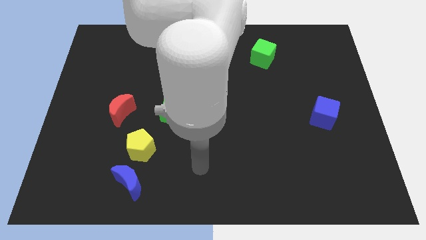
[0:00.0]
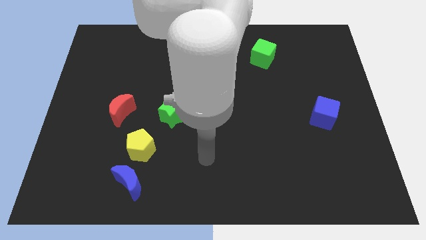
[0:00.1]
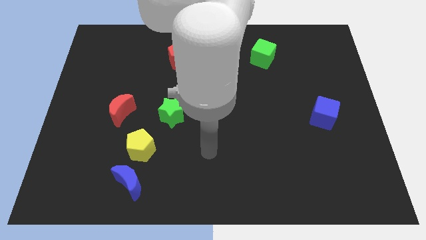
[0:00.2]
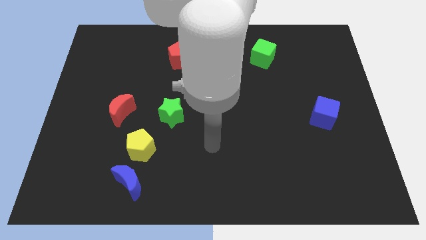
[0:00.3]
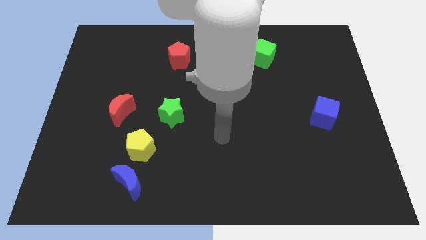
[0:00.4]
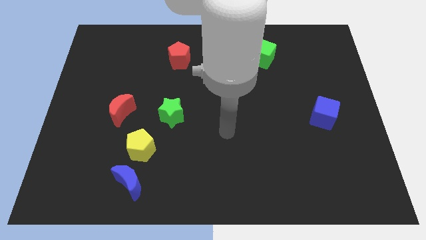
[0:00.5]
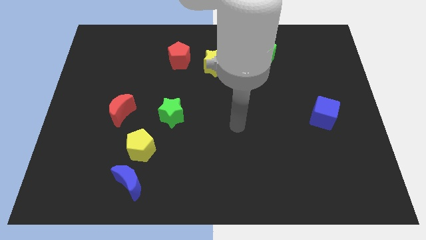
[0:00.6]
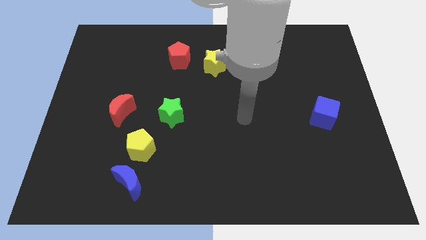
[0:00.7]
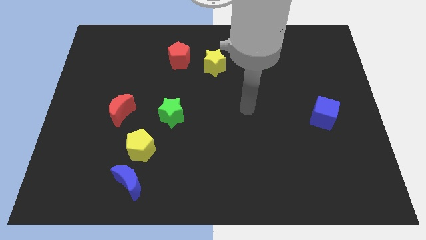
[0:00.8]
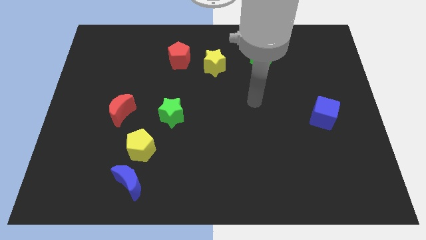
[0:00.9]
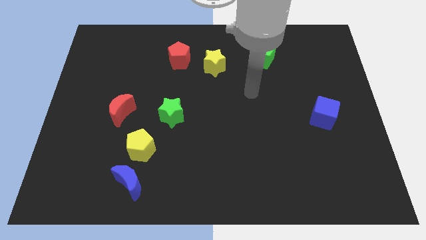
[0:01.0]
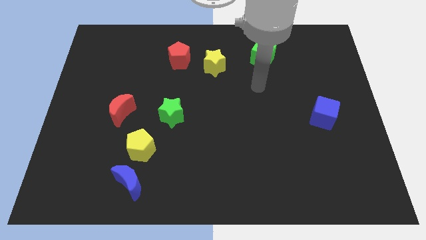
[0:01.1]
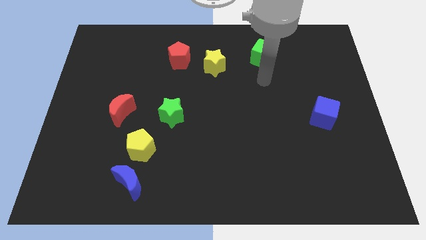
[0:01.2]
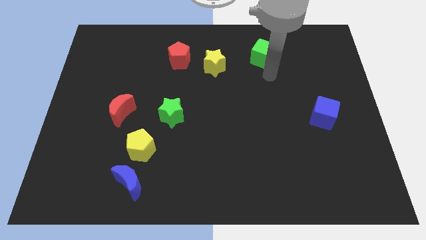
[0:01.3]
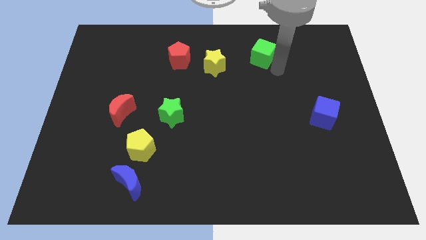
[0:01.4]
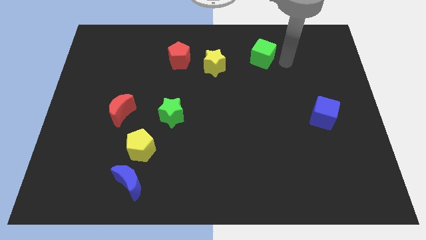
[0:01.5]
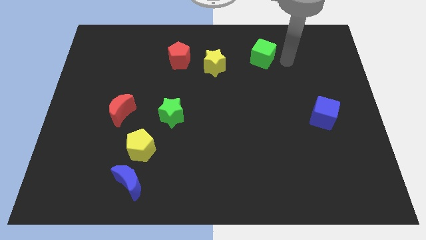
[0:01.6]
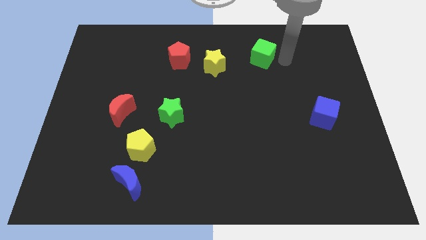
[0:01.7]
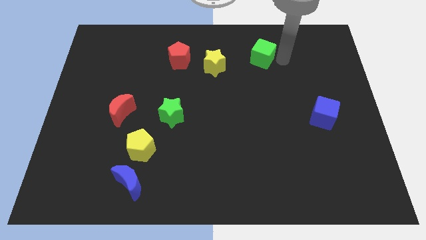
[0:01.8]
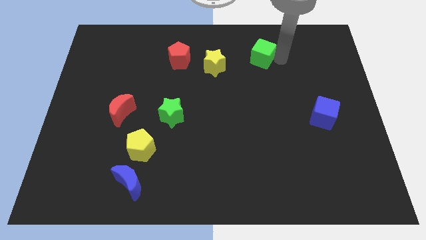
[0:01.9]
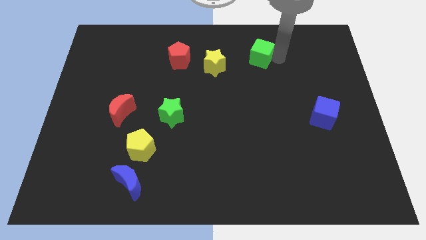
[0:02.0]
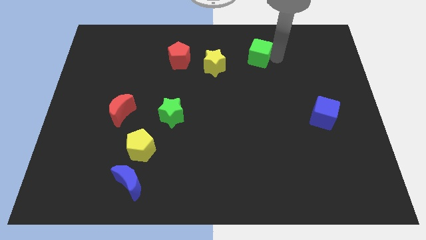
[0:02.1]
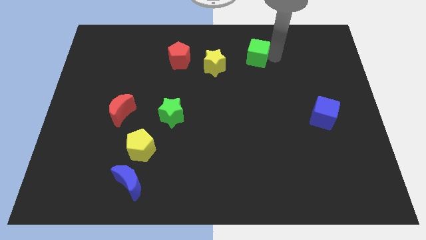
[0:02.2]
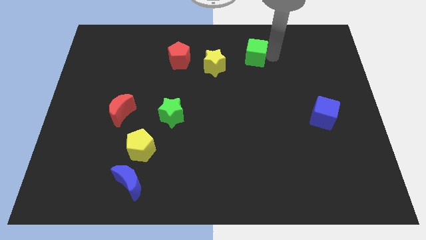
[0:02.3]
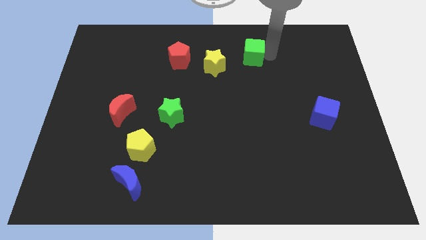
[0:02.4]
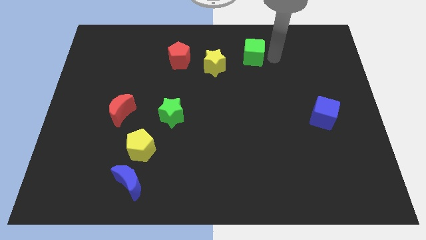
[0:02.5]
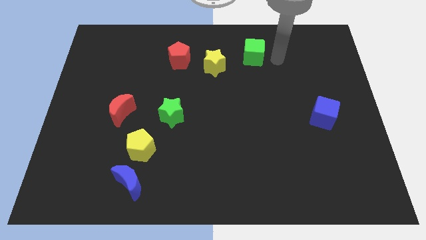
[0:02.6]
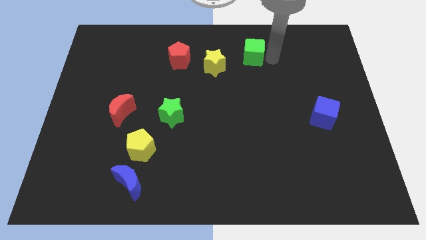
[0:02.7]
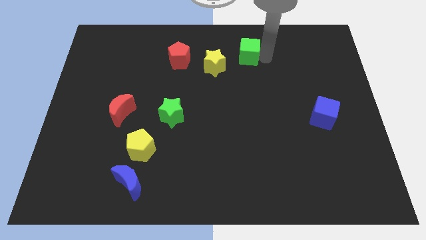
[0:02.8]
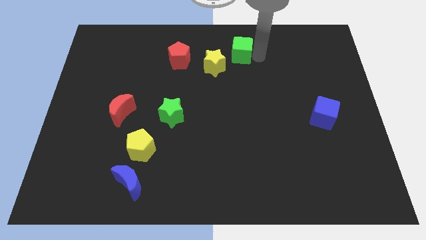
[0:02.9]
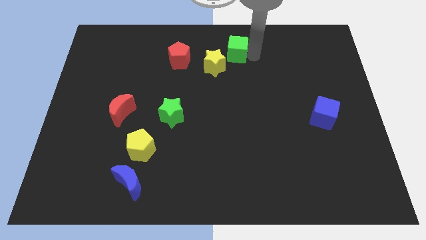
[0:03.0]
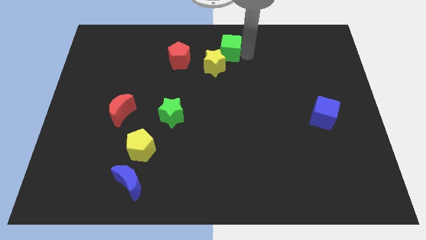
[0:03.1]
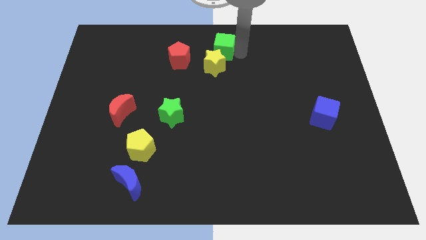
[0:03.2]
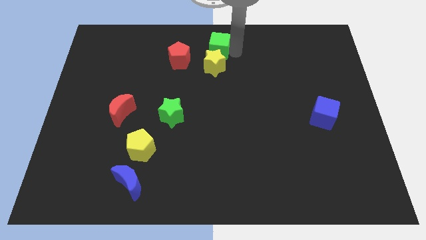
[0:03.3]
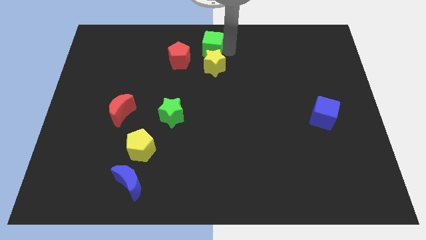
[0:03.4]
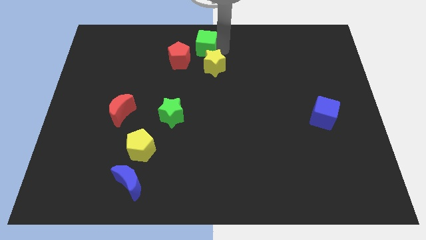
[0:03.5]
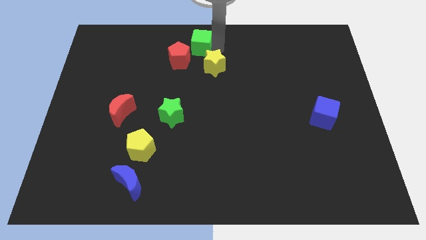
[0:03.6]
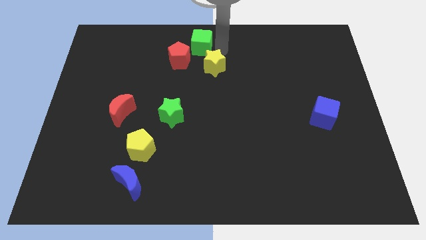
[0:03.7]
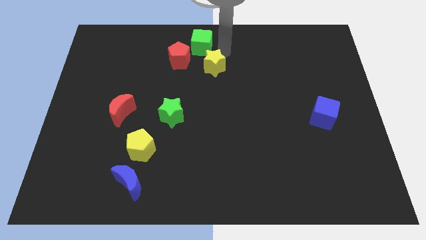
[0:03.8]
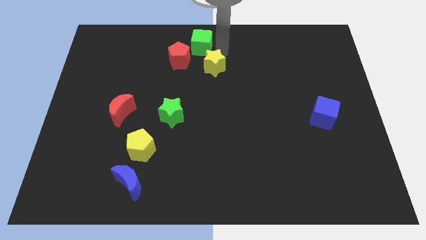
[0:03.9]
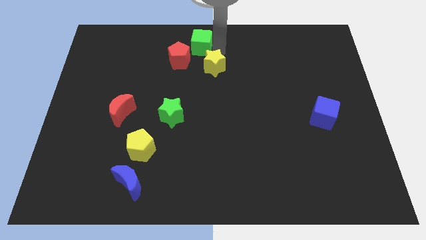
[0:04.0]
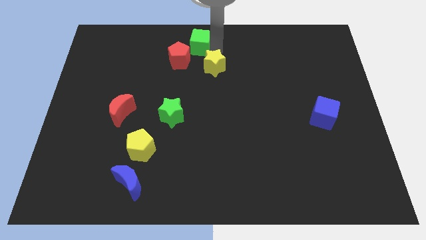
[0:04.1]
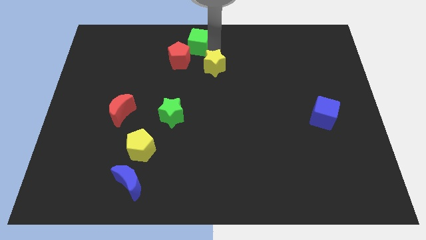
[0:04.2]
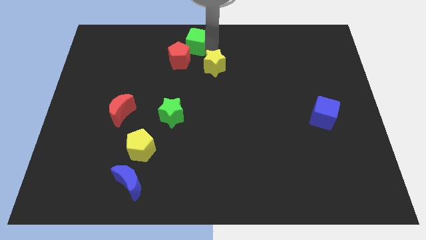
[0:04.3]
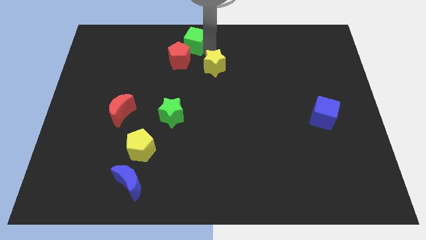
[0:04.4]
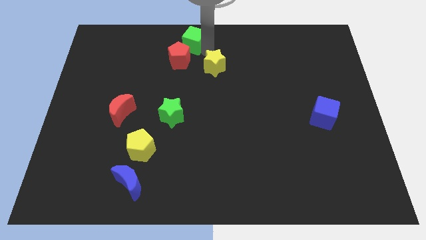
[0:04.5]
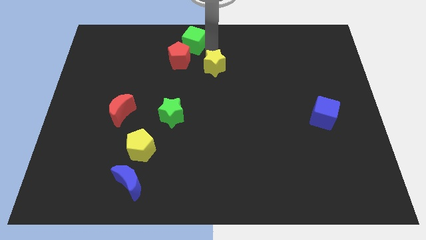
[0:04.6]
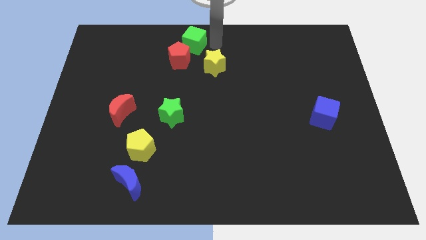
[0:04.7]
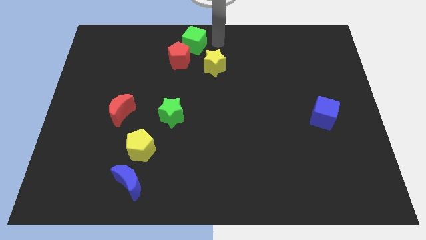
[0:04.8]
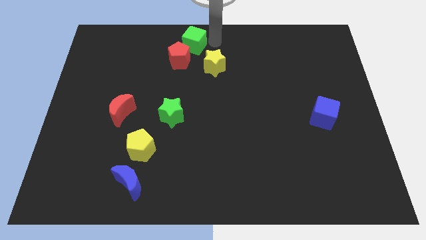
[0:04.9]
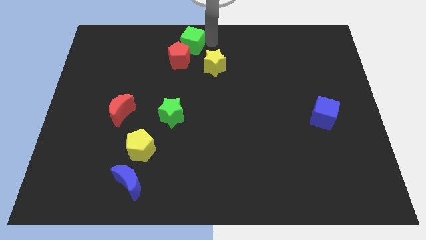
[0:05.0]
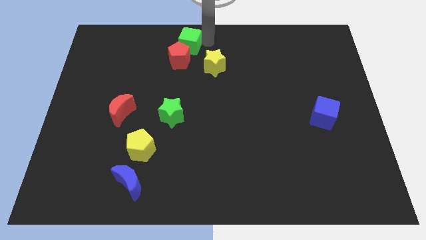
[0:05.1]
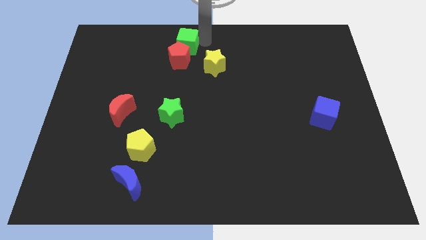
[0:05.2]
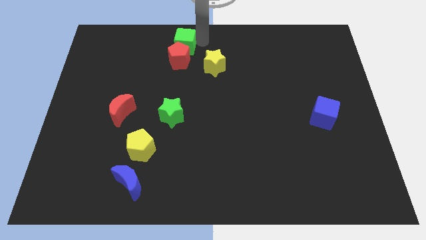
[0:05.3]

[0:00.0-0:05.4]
move the green cube to the left

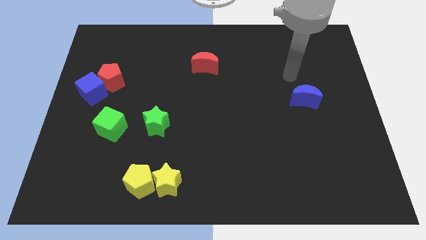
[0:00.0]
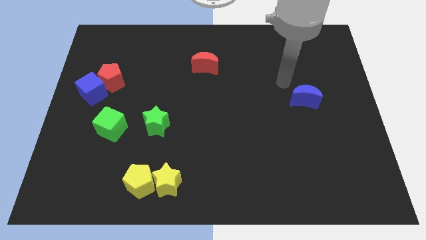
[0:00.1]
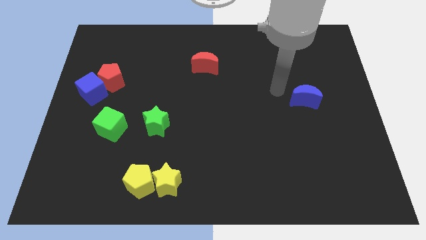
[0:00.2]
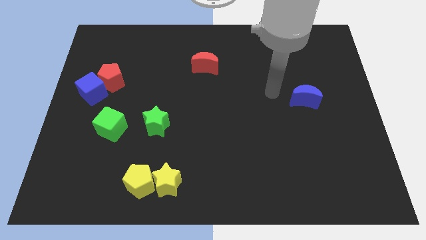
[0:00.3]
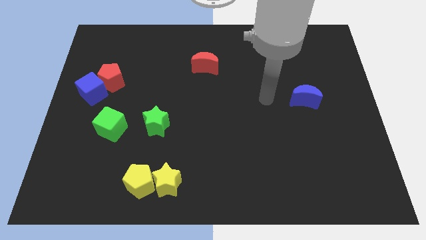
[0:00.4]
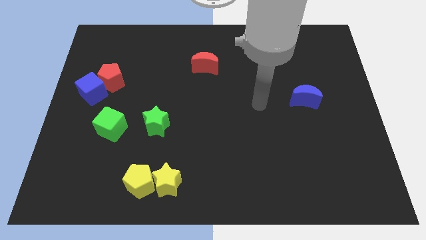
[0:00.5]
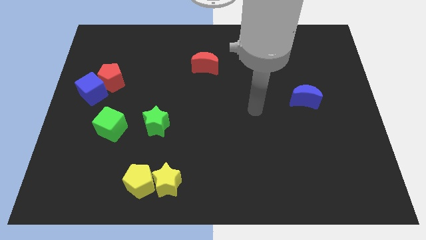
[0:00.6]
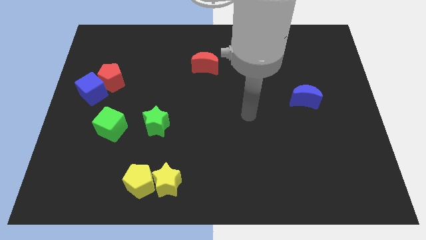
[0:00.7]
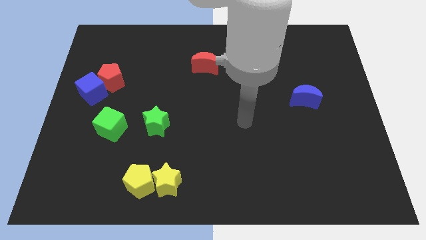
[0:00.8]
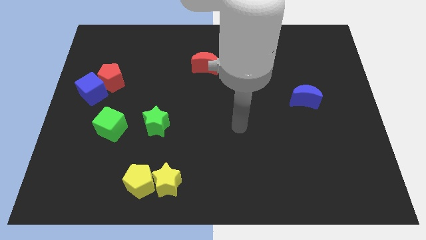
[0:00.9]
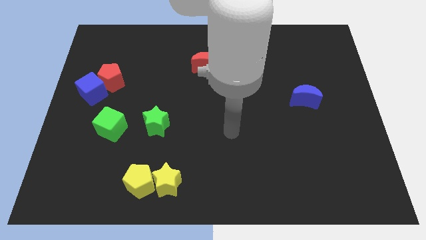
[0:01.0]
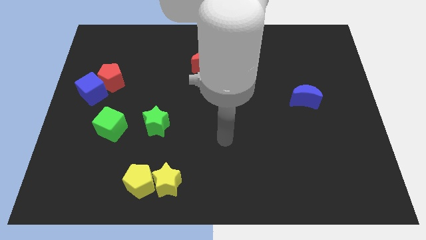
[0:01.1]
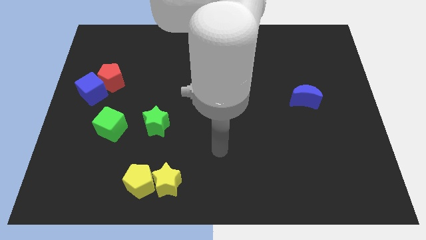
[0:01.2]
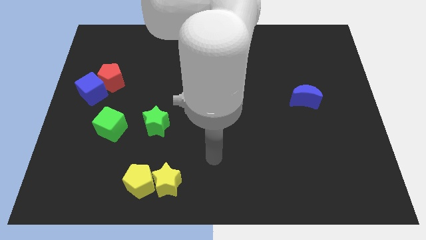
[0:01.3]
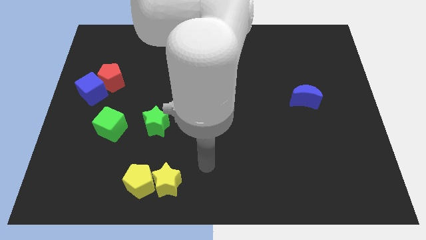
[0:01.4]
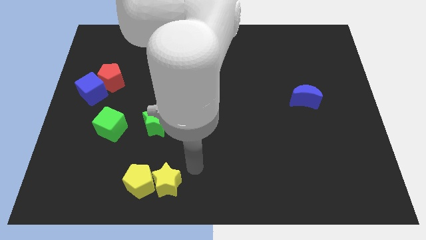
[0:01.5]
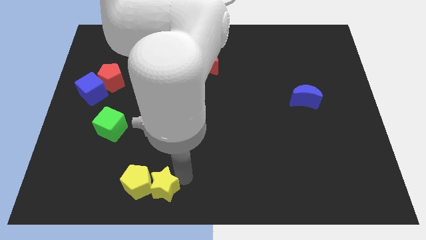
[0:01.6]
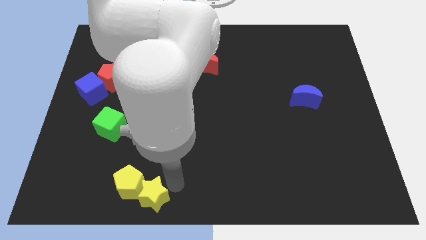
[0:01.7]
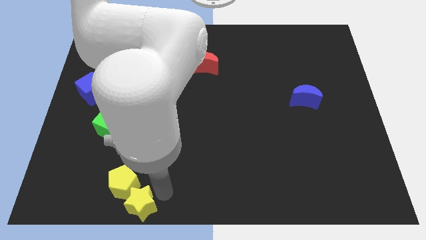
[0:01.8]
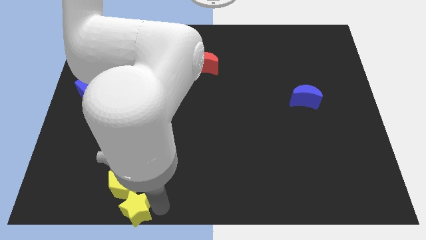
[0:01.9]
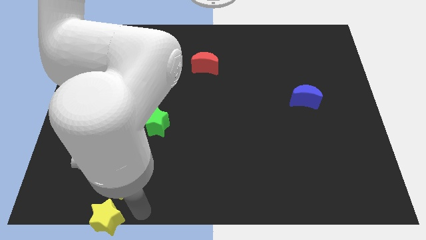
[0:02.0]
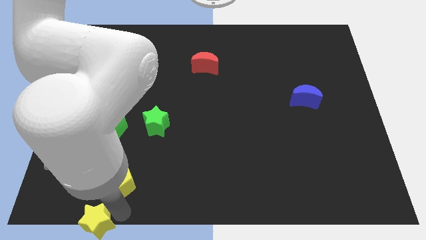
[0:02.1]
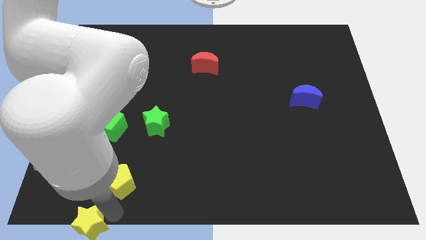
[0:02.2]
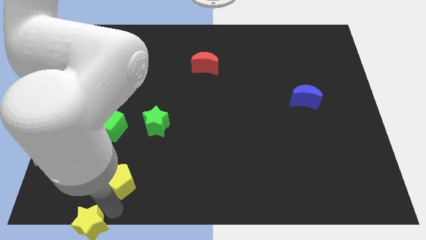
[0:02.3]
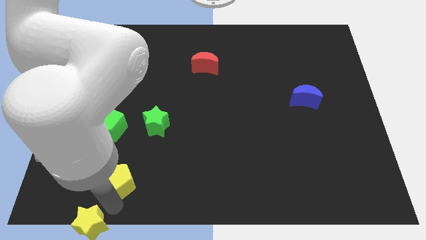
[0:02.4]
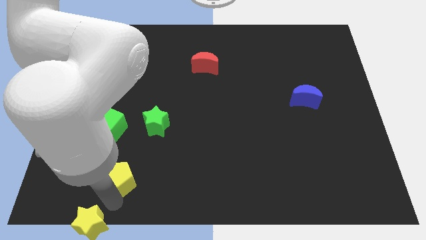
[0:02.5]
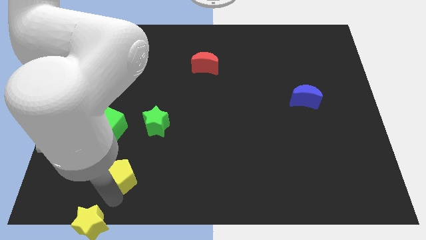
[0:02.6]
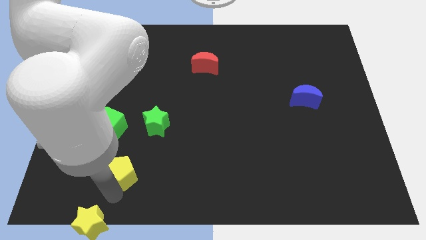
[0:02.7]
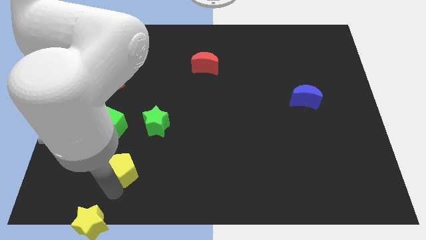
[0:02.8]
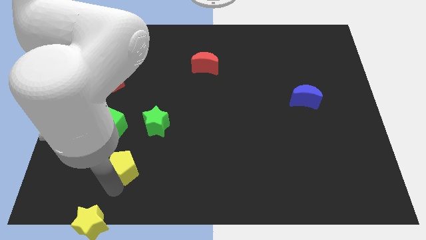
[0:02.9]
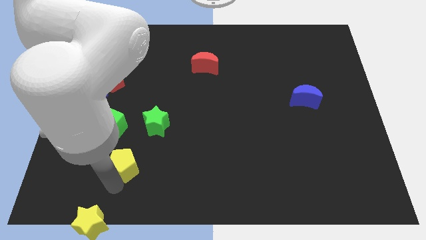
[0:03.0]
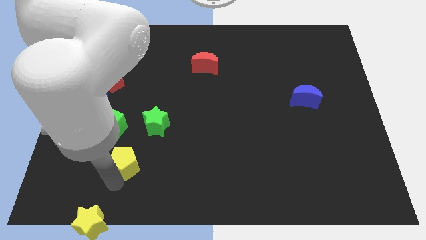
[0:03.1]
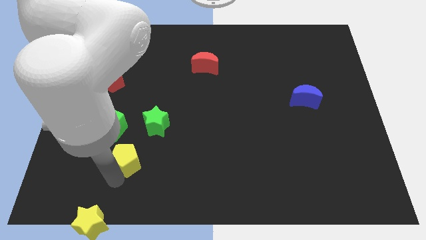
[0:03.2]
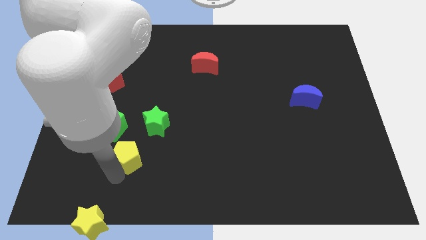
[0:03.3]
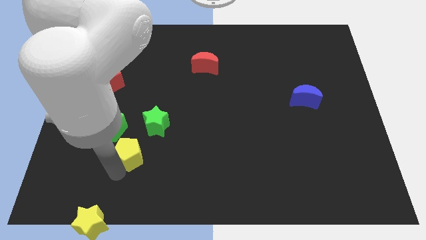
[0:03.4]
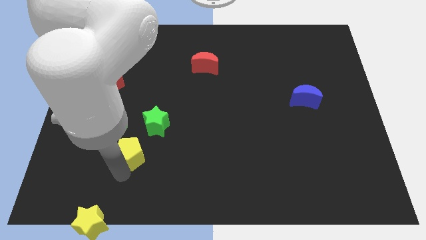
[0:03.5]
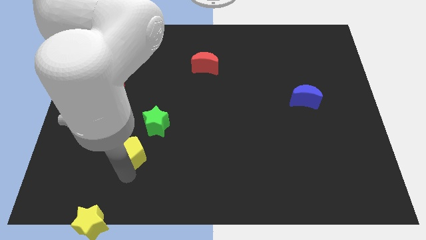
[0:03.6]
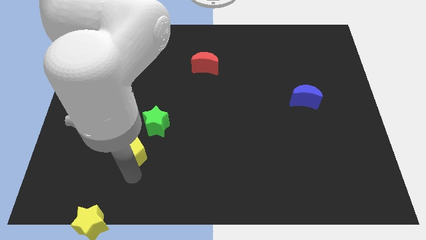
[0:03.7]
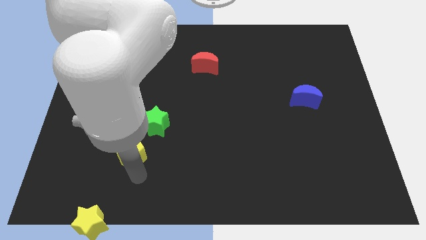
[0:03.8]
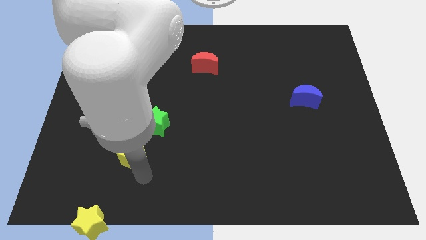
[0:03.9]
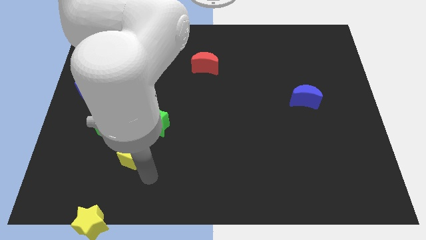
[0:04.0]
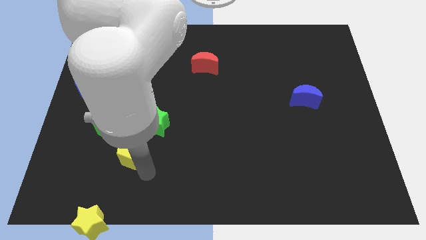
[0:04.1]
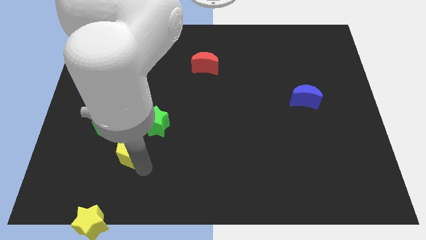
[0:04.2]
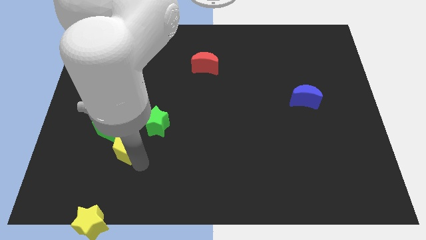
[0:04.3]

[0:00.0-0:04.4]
slide the yellow pentagon a bit up
